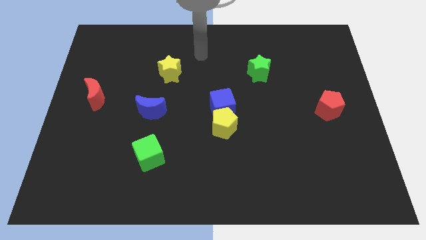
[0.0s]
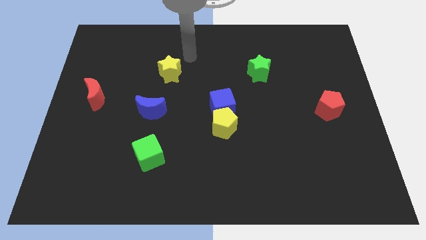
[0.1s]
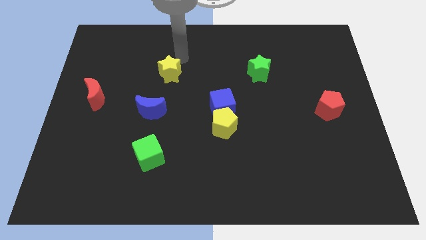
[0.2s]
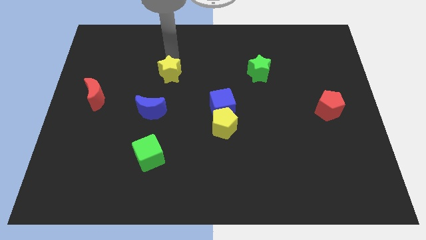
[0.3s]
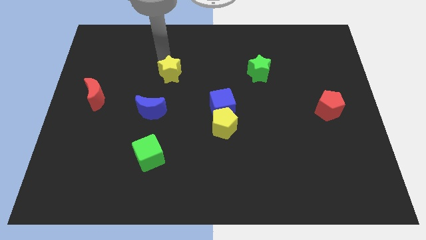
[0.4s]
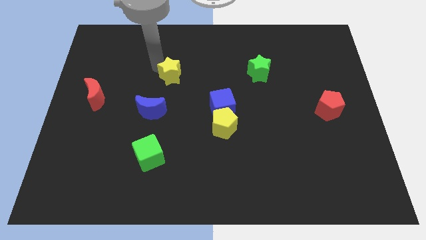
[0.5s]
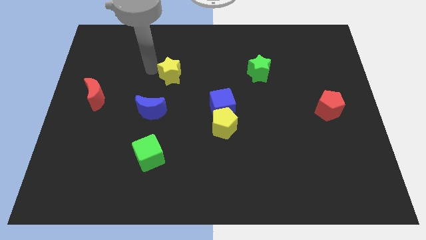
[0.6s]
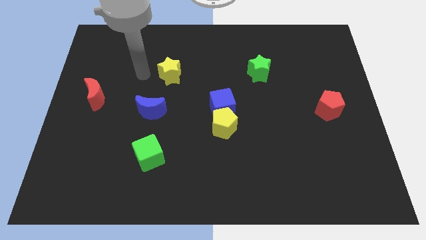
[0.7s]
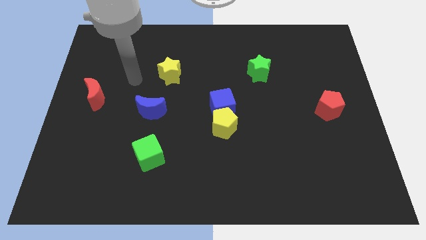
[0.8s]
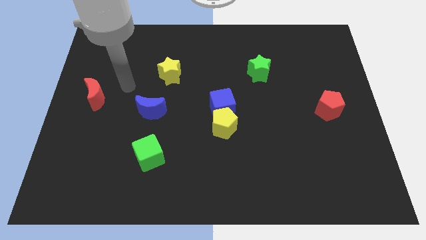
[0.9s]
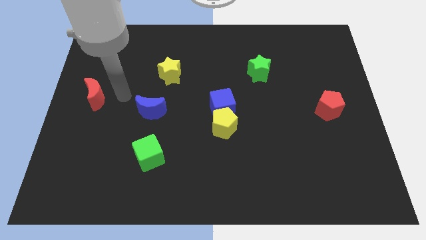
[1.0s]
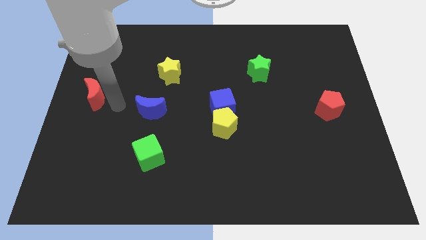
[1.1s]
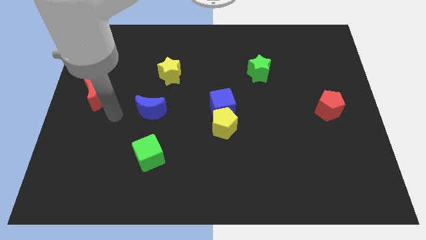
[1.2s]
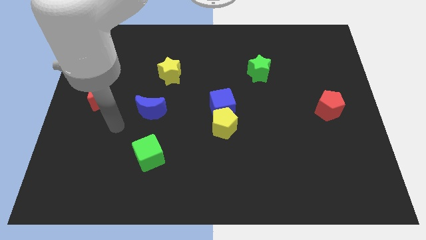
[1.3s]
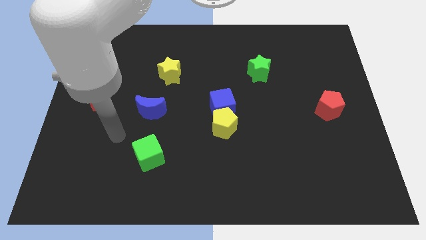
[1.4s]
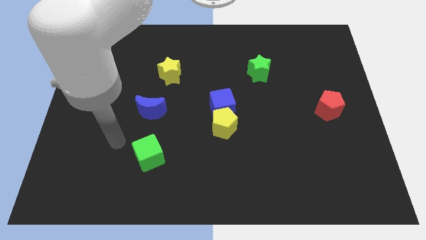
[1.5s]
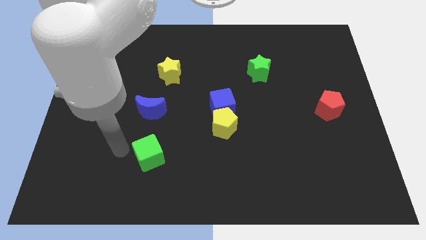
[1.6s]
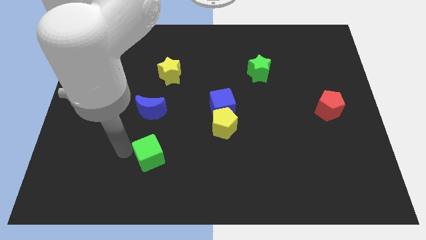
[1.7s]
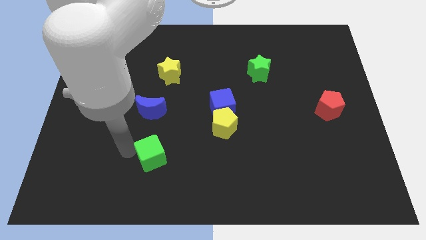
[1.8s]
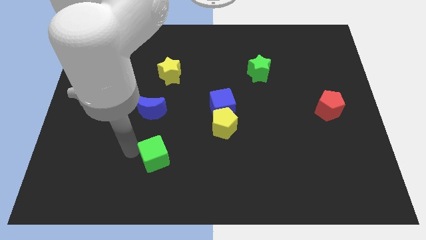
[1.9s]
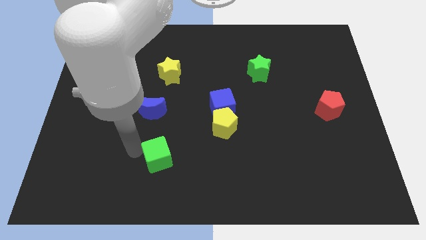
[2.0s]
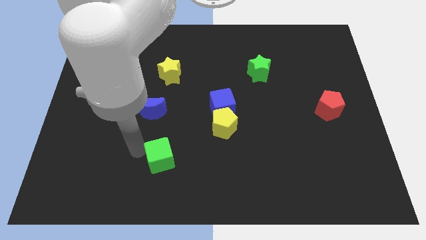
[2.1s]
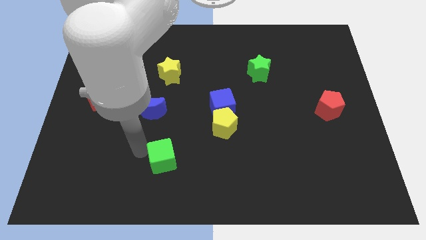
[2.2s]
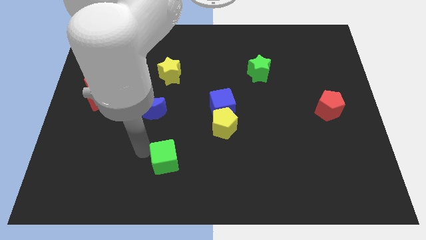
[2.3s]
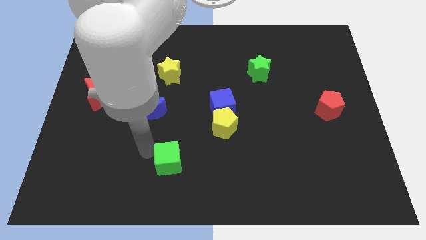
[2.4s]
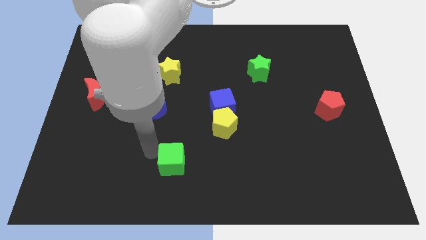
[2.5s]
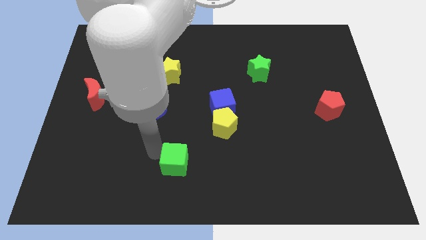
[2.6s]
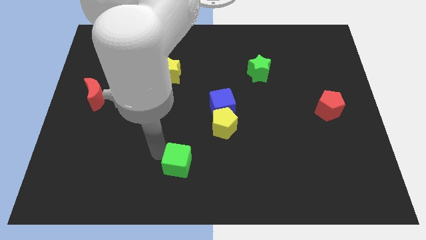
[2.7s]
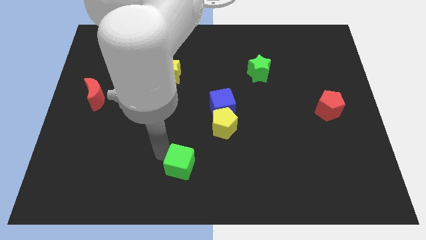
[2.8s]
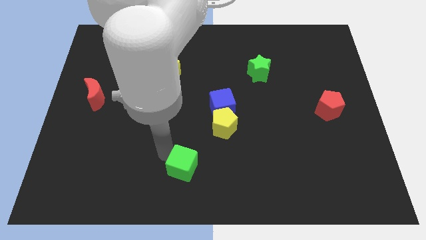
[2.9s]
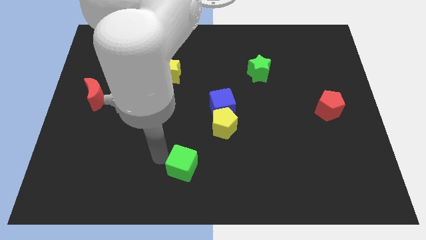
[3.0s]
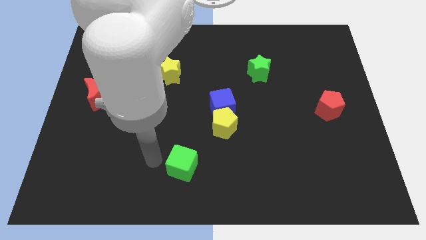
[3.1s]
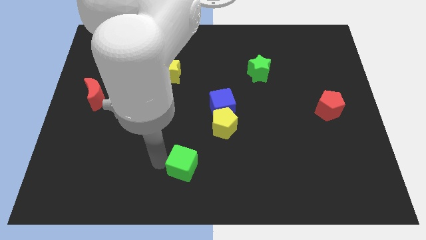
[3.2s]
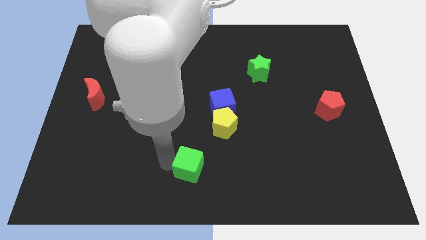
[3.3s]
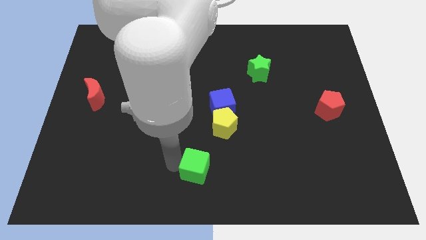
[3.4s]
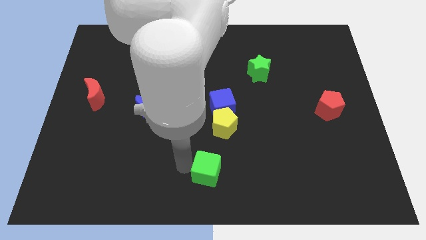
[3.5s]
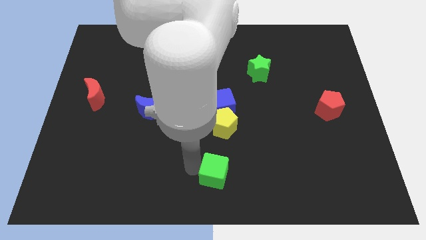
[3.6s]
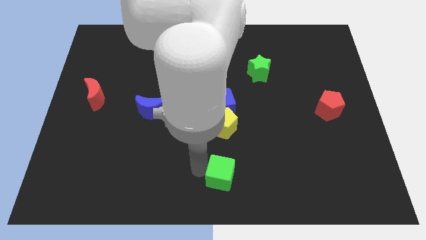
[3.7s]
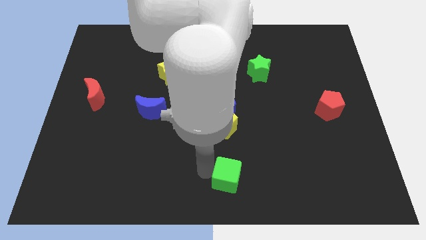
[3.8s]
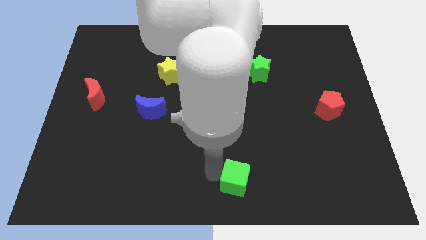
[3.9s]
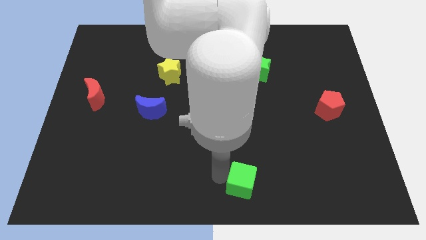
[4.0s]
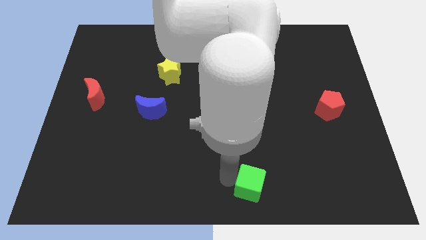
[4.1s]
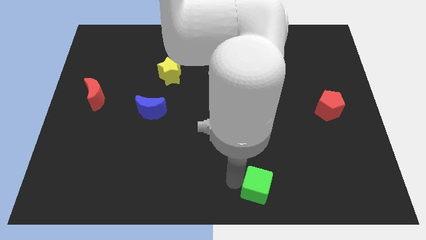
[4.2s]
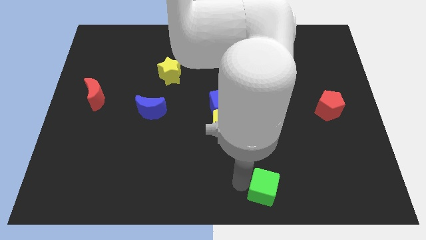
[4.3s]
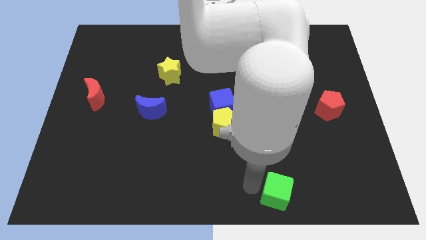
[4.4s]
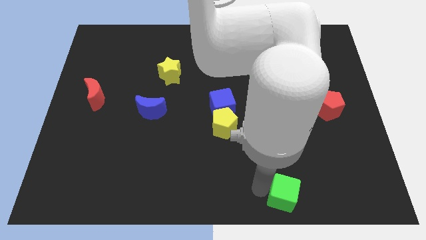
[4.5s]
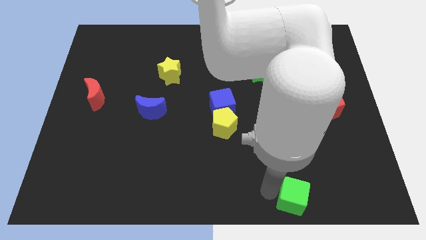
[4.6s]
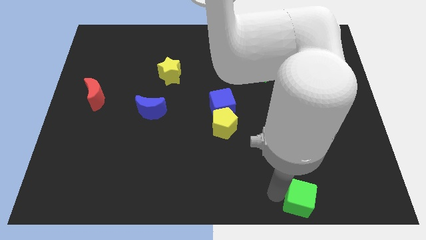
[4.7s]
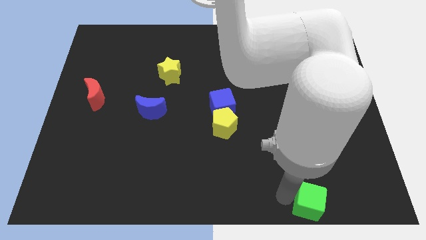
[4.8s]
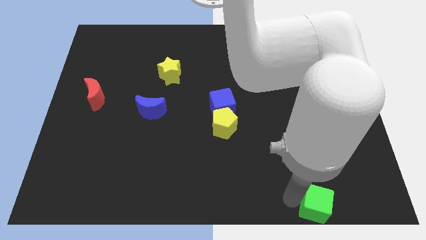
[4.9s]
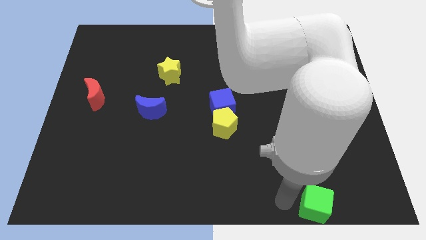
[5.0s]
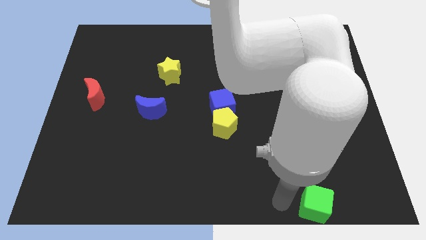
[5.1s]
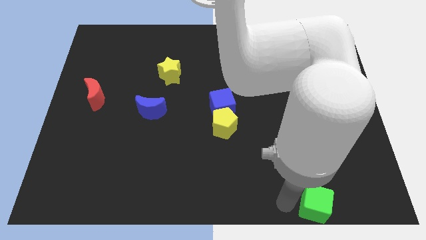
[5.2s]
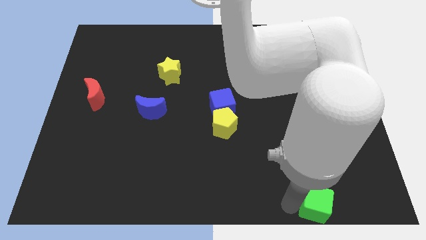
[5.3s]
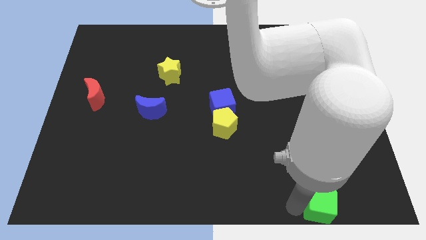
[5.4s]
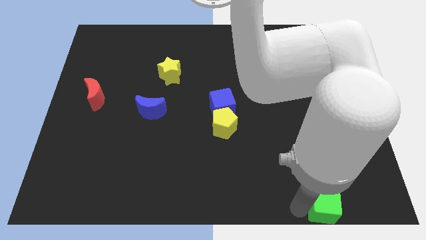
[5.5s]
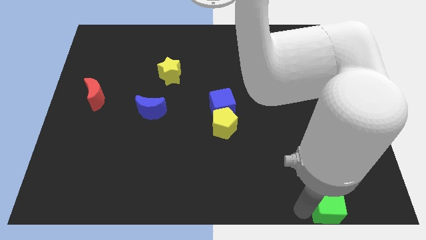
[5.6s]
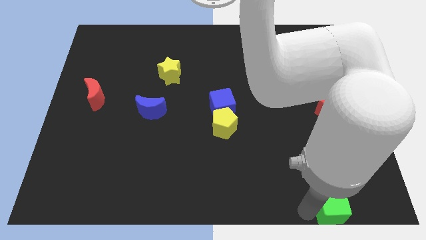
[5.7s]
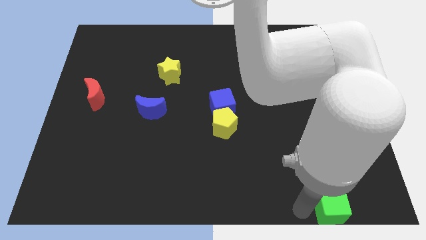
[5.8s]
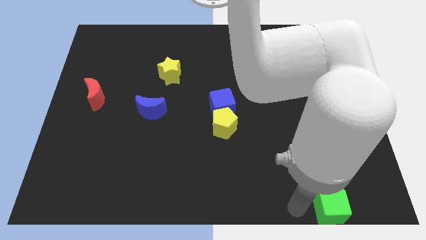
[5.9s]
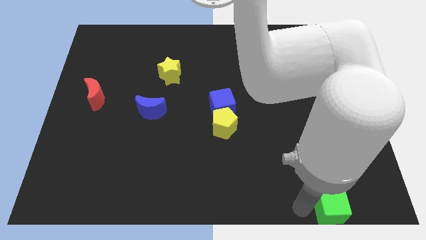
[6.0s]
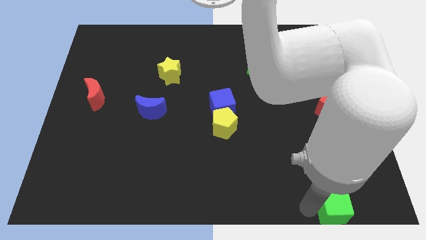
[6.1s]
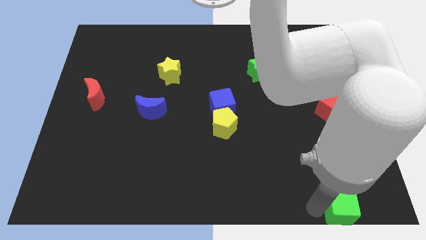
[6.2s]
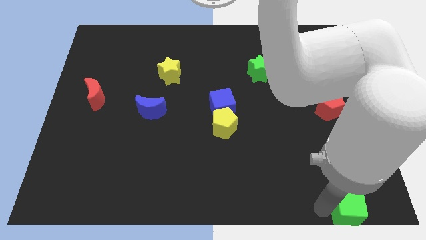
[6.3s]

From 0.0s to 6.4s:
push the green cube to the bottom right of the board
